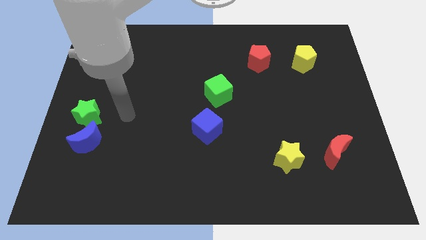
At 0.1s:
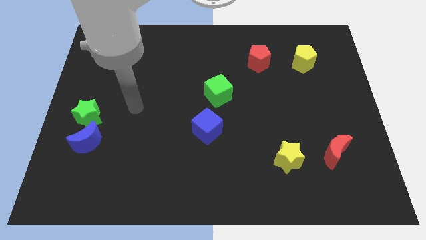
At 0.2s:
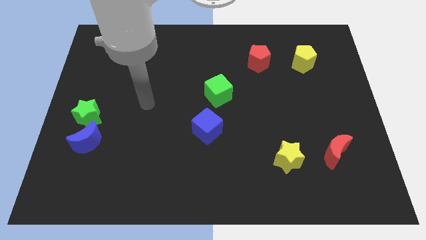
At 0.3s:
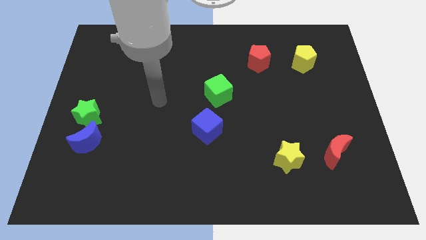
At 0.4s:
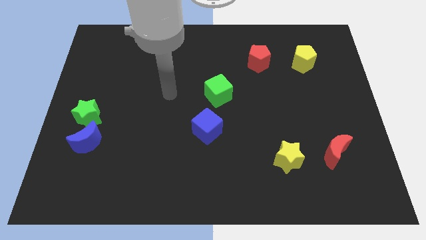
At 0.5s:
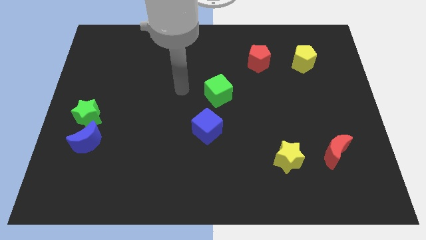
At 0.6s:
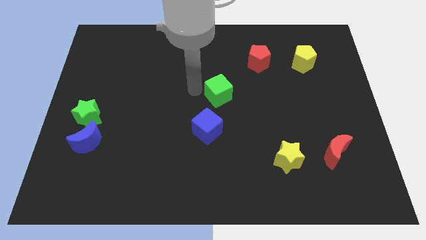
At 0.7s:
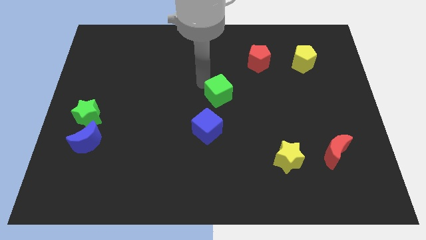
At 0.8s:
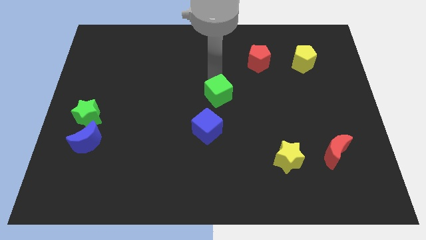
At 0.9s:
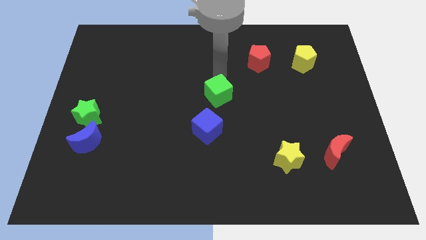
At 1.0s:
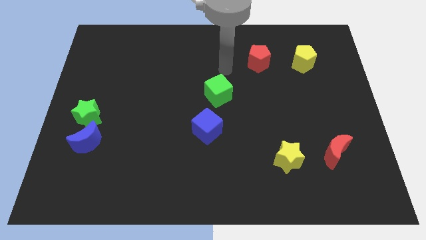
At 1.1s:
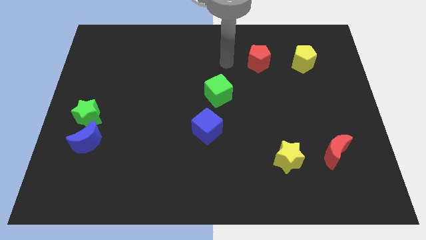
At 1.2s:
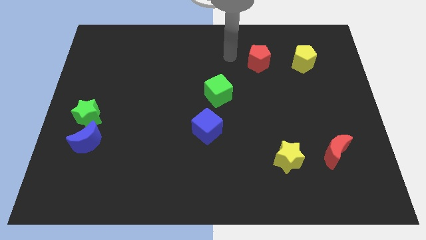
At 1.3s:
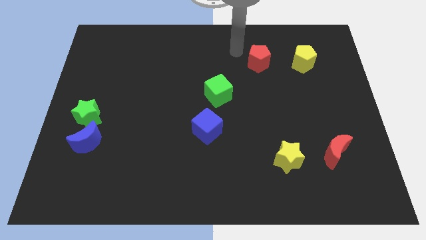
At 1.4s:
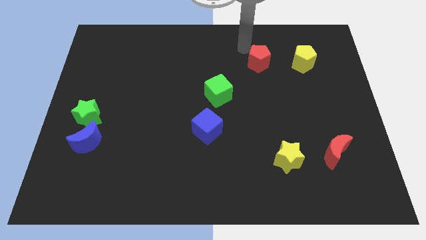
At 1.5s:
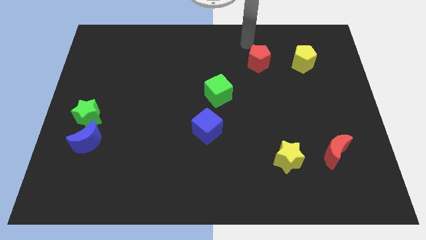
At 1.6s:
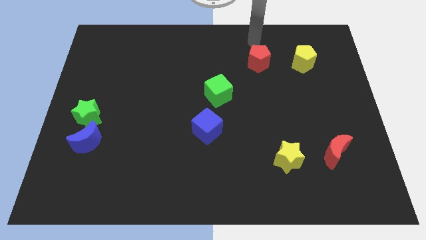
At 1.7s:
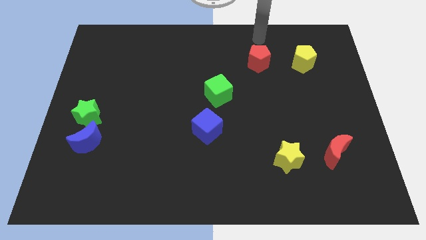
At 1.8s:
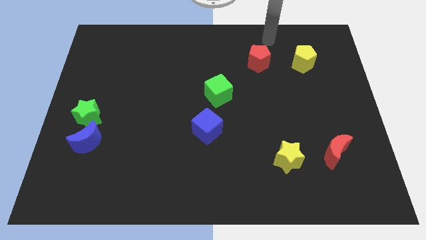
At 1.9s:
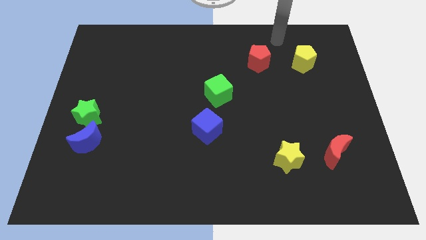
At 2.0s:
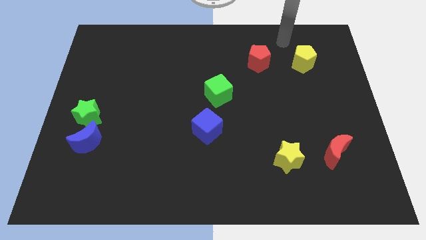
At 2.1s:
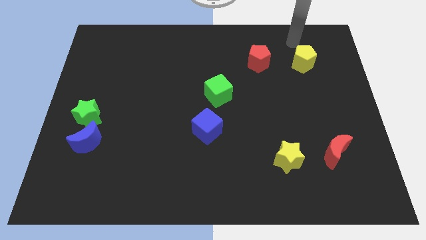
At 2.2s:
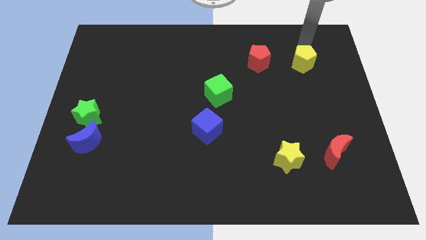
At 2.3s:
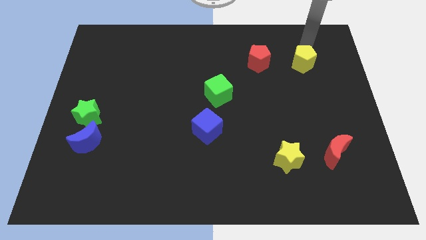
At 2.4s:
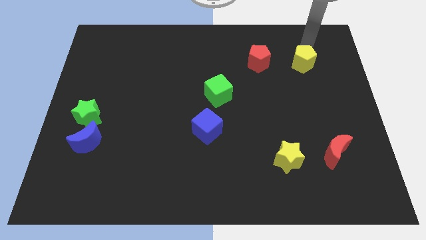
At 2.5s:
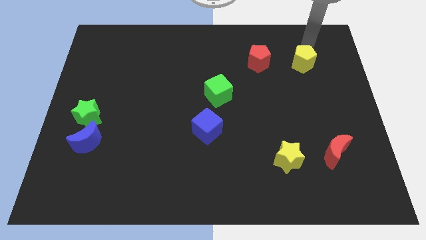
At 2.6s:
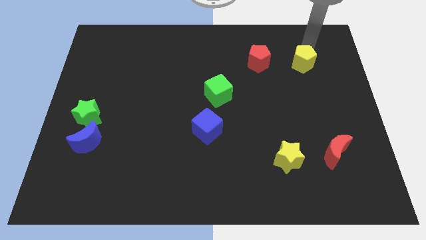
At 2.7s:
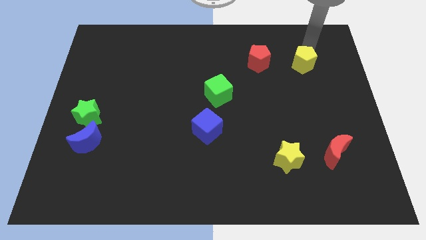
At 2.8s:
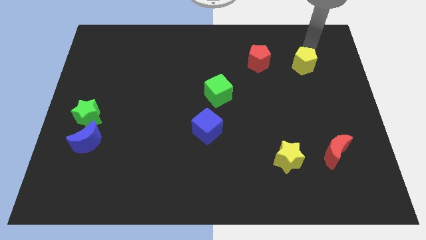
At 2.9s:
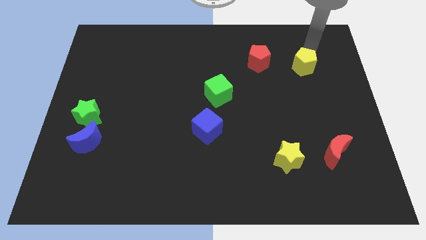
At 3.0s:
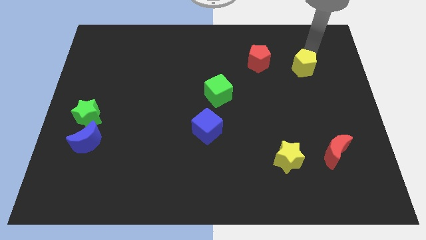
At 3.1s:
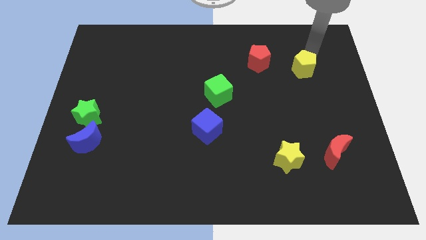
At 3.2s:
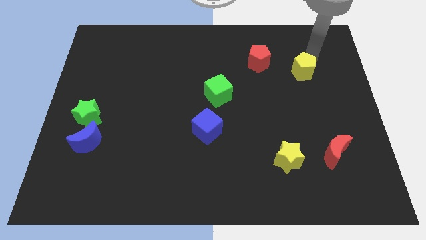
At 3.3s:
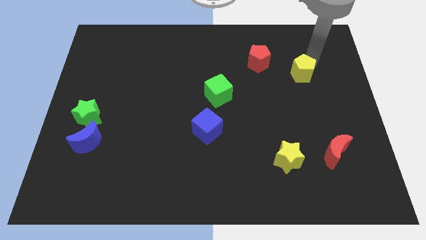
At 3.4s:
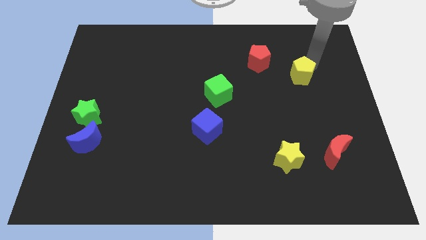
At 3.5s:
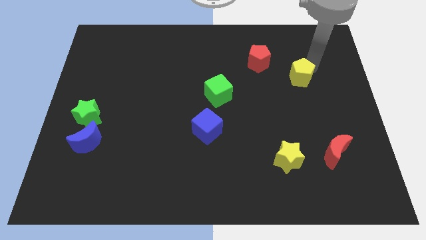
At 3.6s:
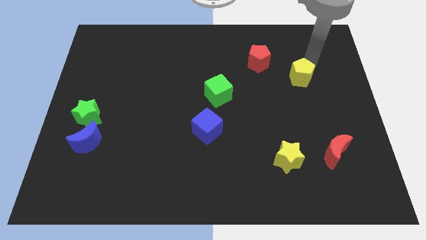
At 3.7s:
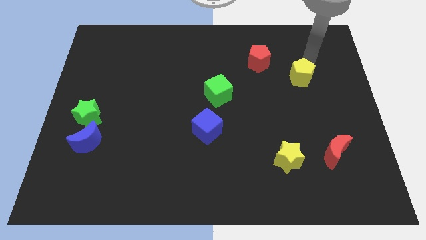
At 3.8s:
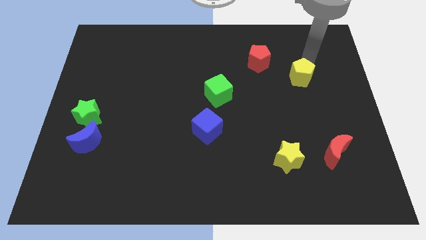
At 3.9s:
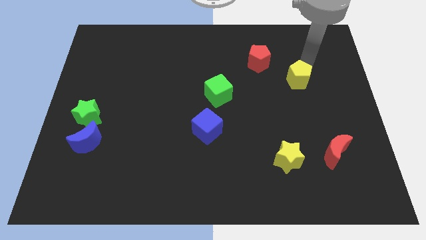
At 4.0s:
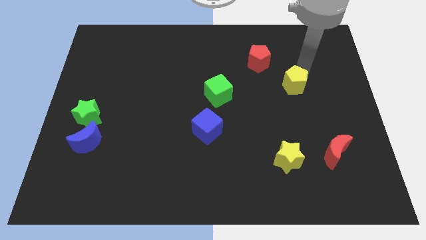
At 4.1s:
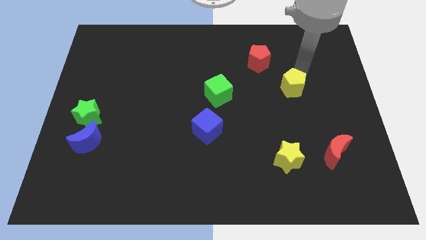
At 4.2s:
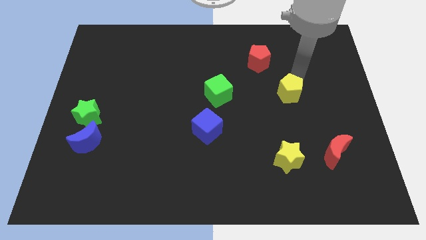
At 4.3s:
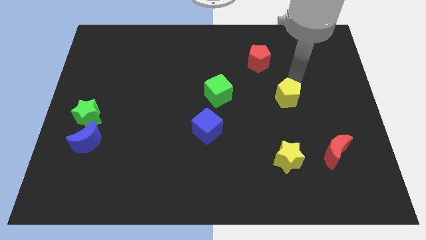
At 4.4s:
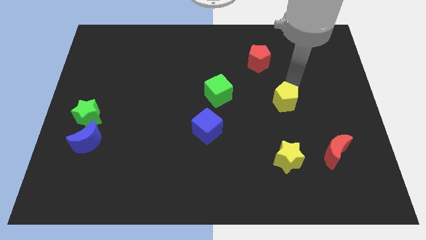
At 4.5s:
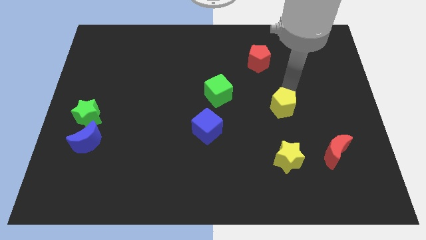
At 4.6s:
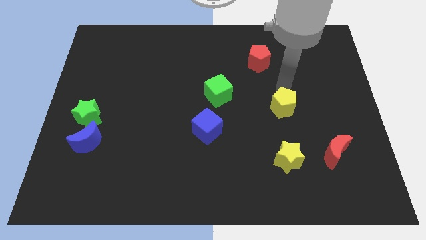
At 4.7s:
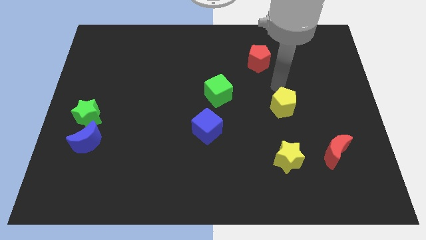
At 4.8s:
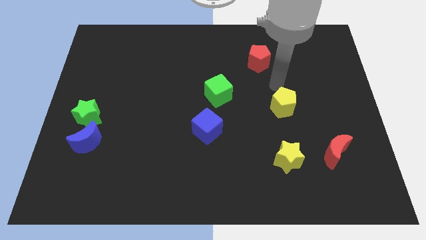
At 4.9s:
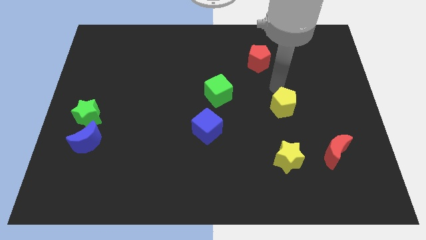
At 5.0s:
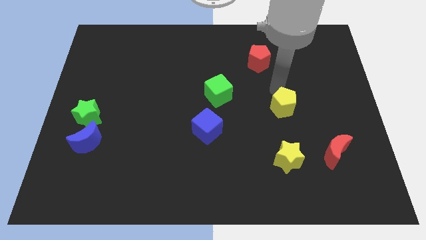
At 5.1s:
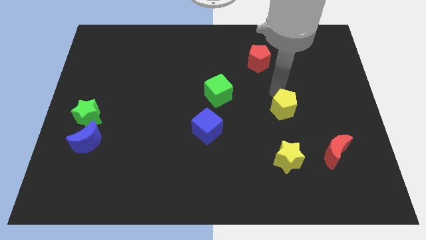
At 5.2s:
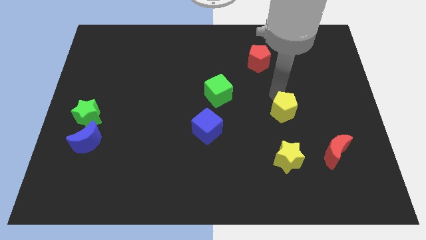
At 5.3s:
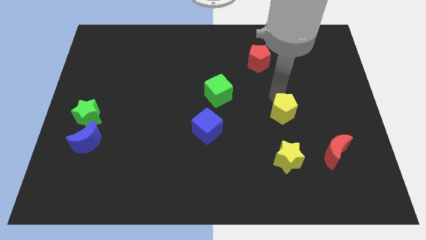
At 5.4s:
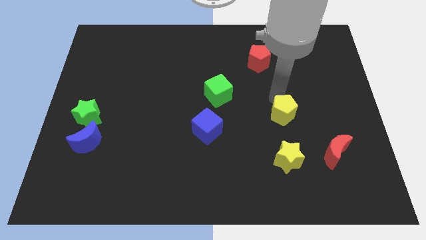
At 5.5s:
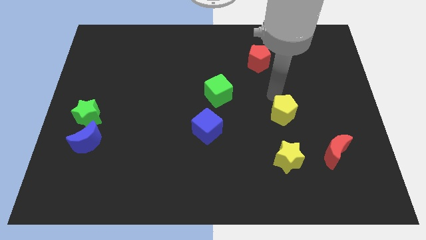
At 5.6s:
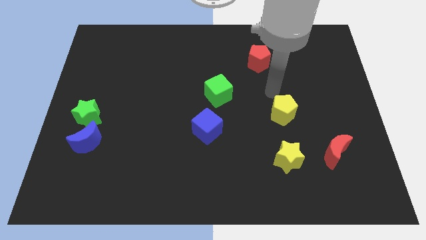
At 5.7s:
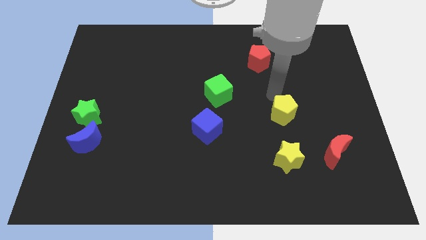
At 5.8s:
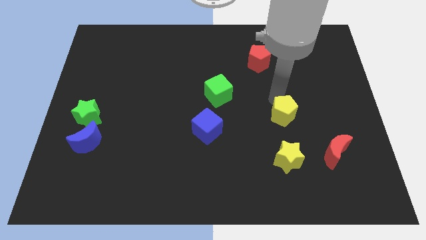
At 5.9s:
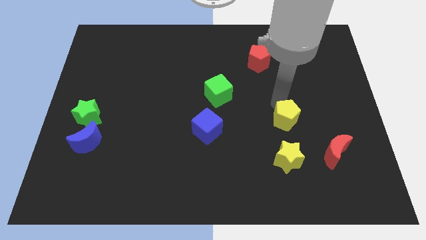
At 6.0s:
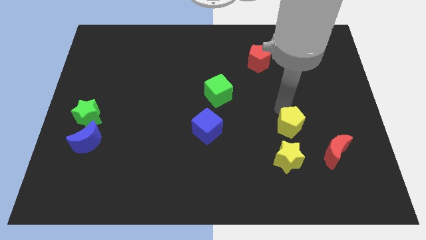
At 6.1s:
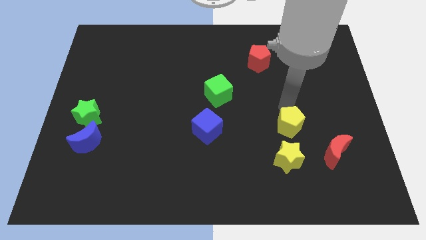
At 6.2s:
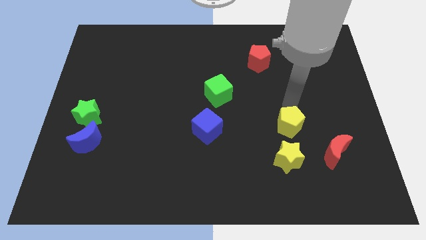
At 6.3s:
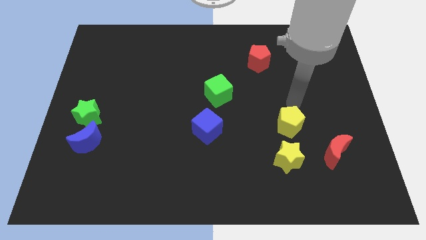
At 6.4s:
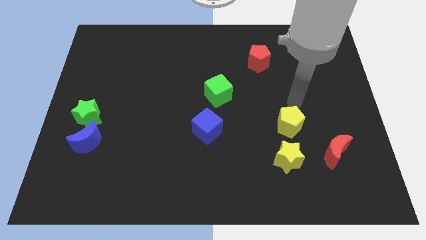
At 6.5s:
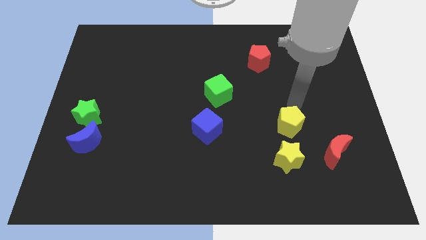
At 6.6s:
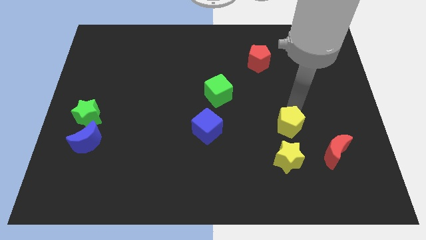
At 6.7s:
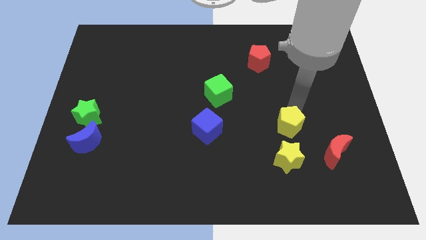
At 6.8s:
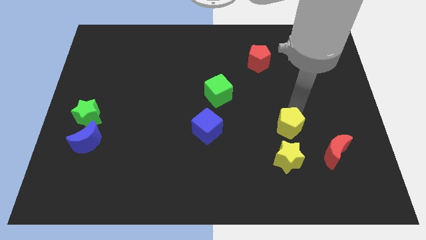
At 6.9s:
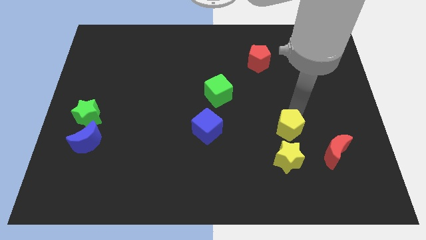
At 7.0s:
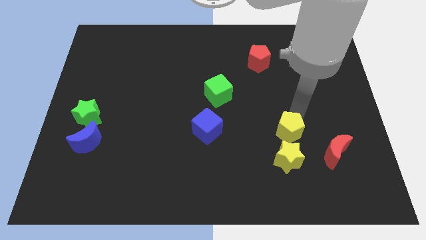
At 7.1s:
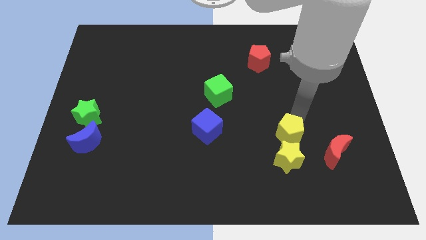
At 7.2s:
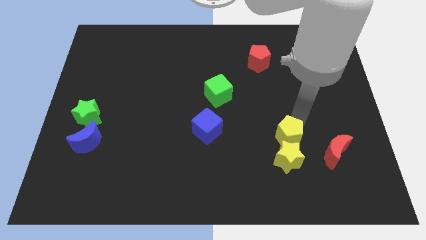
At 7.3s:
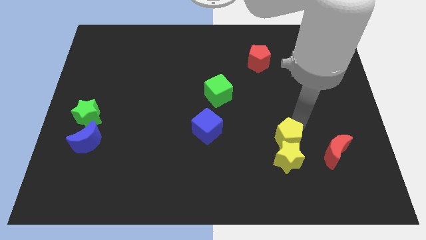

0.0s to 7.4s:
move the yellow pentagon towards the yellow star
